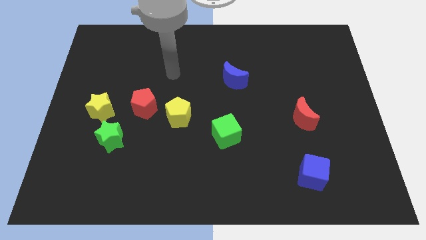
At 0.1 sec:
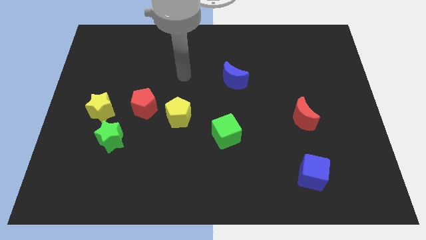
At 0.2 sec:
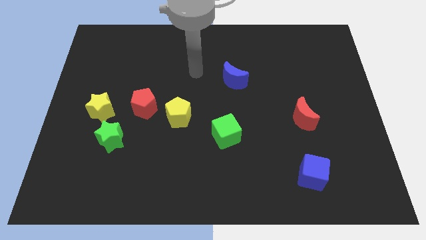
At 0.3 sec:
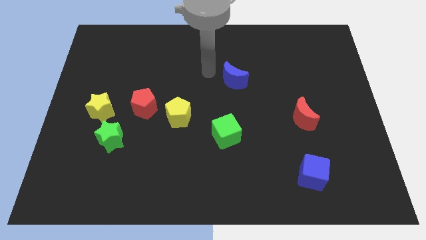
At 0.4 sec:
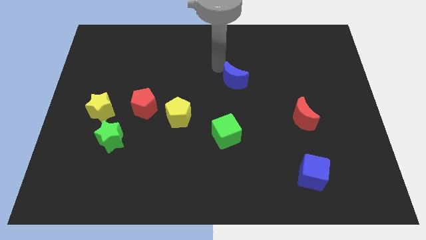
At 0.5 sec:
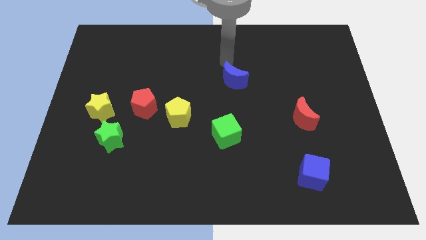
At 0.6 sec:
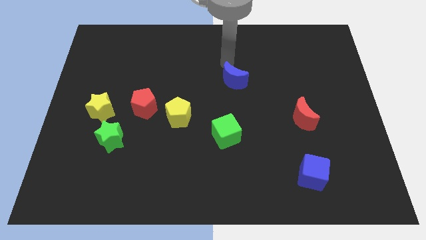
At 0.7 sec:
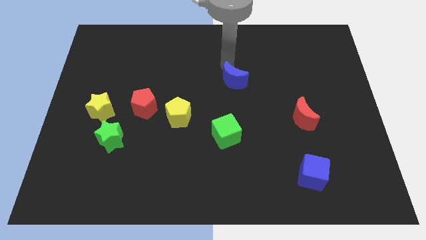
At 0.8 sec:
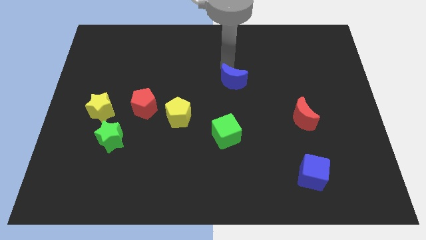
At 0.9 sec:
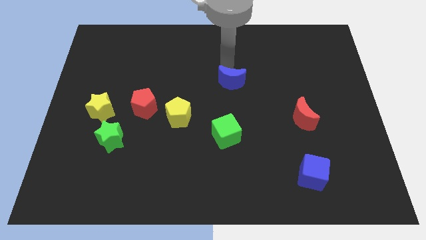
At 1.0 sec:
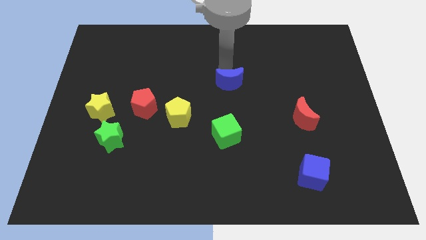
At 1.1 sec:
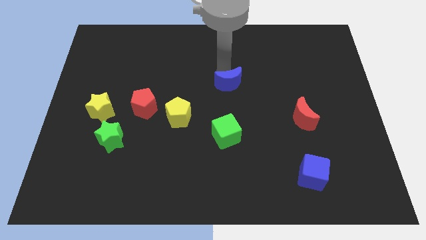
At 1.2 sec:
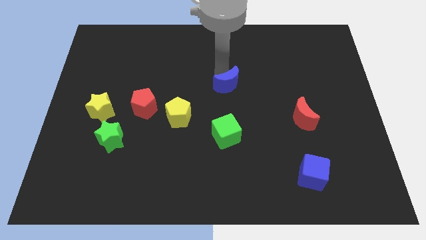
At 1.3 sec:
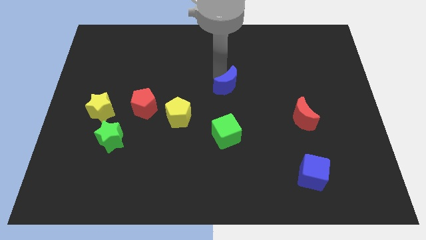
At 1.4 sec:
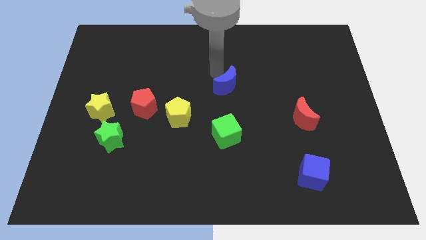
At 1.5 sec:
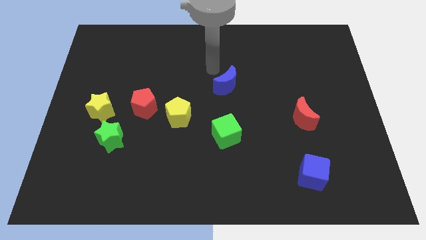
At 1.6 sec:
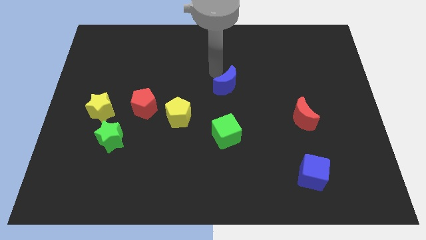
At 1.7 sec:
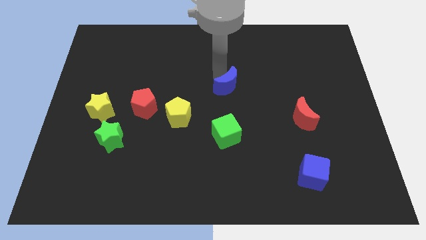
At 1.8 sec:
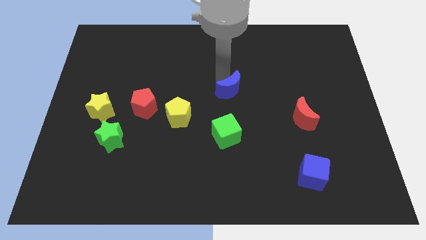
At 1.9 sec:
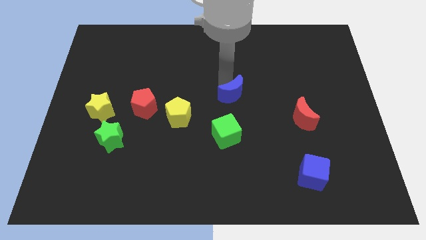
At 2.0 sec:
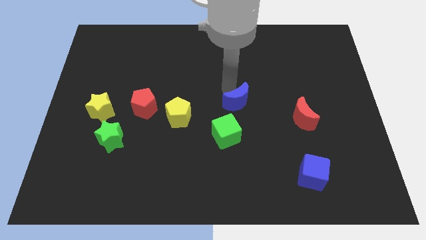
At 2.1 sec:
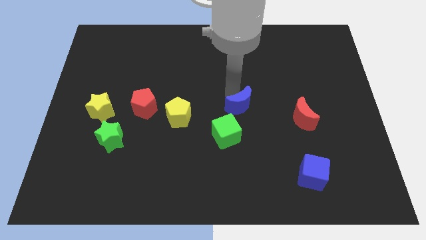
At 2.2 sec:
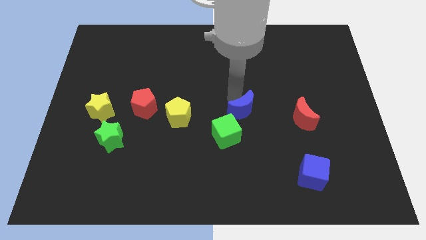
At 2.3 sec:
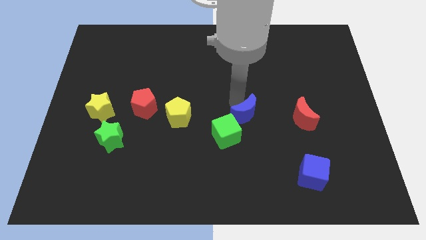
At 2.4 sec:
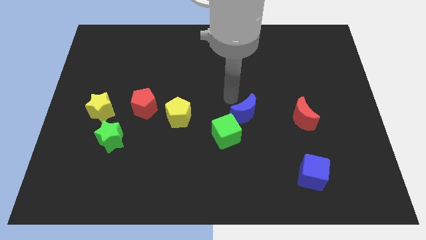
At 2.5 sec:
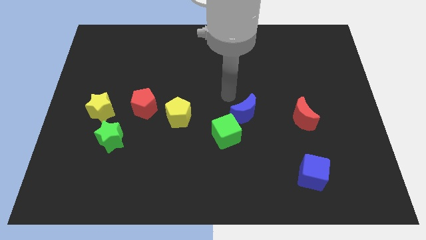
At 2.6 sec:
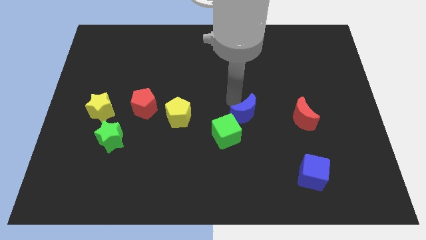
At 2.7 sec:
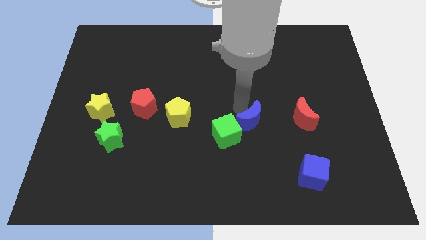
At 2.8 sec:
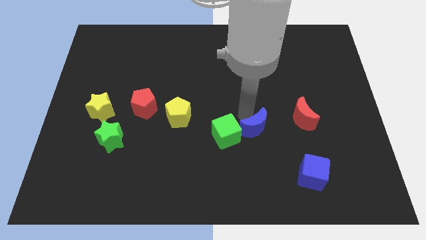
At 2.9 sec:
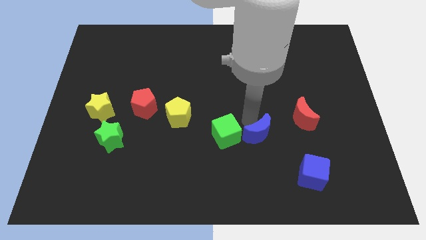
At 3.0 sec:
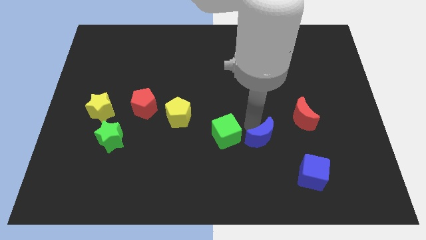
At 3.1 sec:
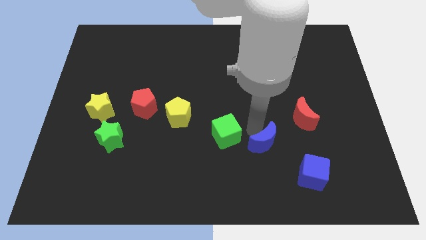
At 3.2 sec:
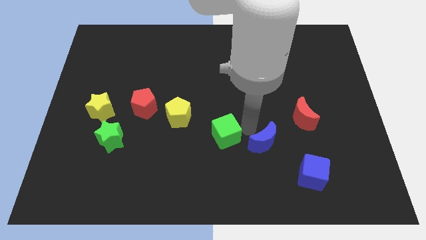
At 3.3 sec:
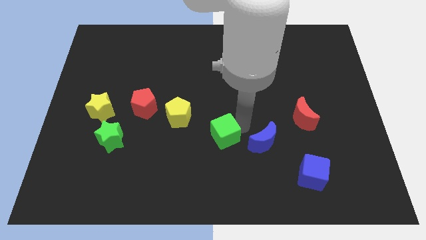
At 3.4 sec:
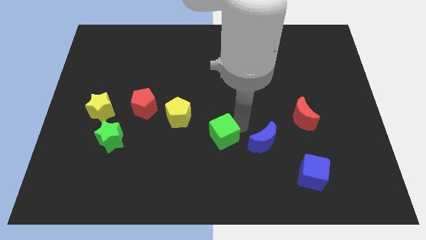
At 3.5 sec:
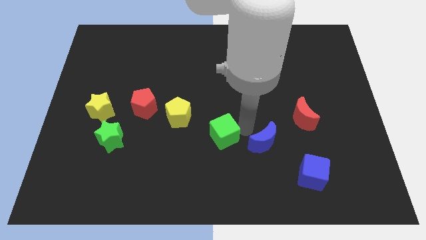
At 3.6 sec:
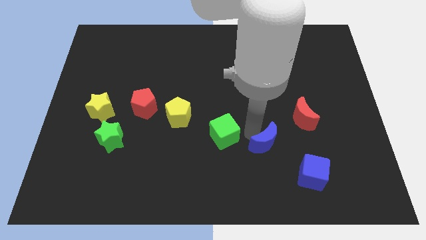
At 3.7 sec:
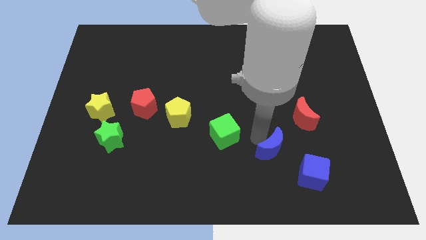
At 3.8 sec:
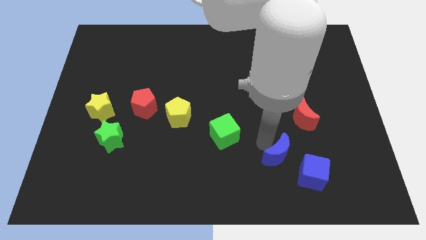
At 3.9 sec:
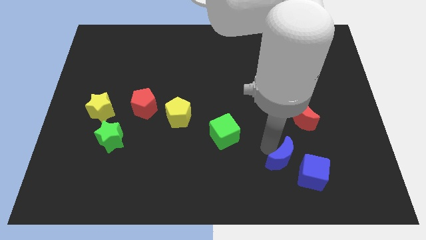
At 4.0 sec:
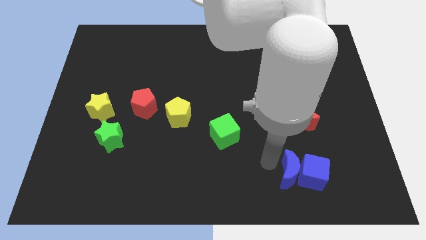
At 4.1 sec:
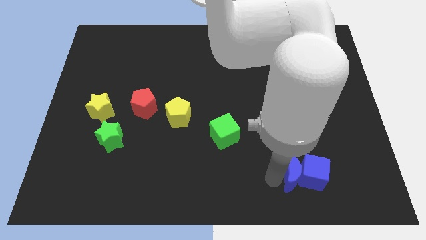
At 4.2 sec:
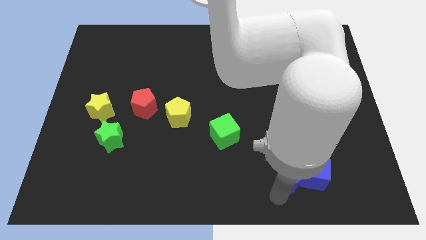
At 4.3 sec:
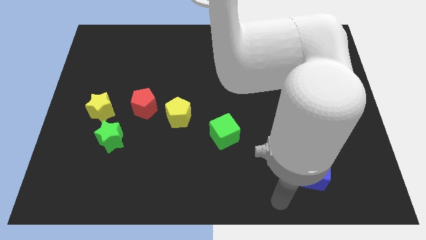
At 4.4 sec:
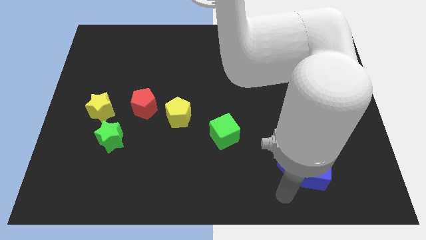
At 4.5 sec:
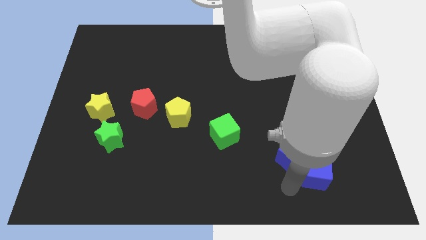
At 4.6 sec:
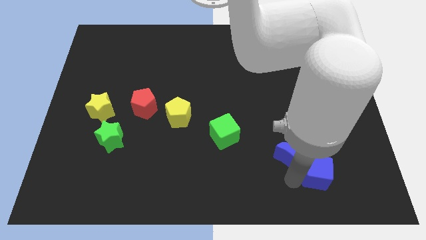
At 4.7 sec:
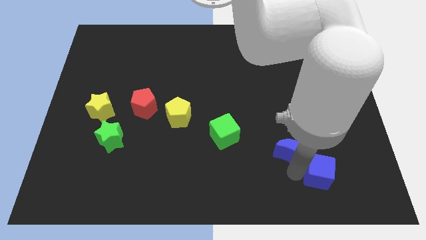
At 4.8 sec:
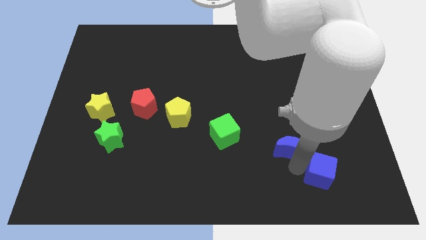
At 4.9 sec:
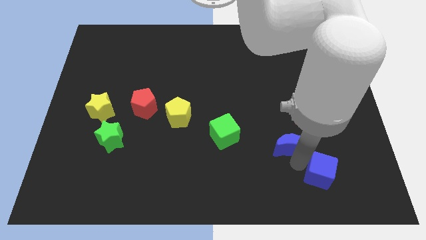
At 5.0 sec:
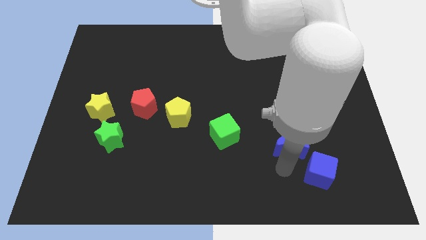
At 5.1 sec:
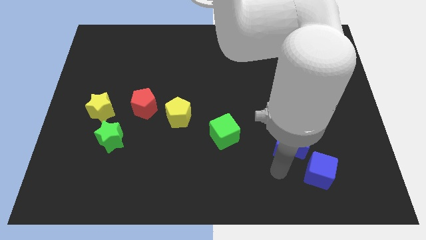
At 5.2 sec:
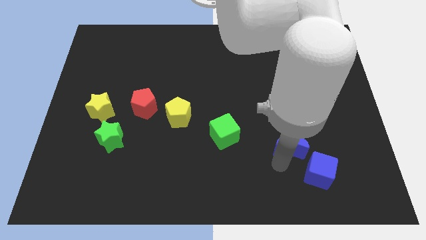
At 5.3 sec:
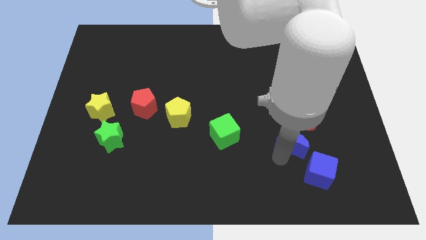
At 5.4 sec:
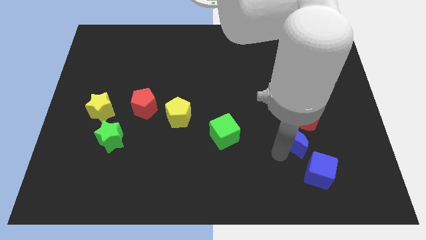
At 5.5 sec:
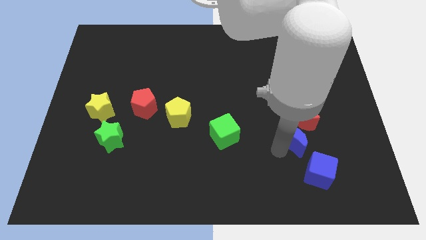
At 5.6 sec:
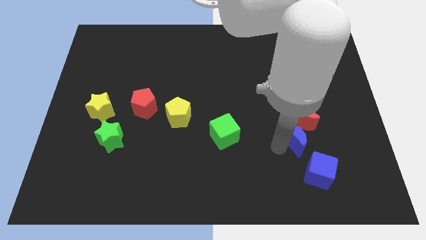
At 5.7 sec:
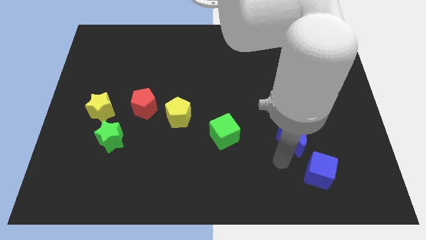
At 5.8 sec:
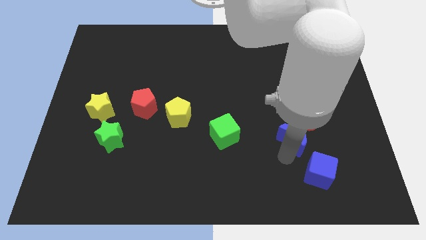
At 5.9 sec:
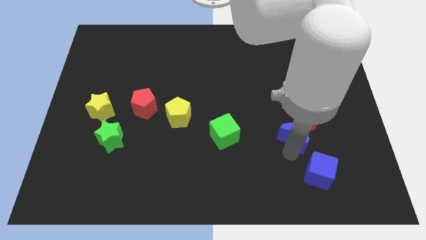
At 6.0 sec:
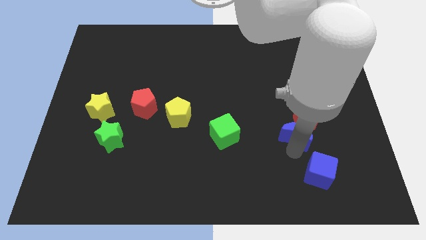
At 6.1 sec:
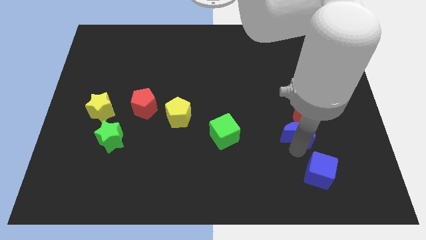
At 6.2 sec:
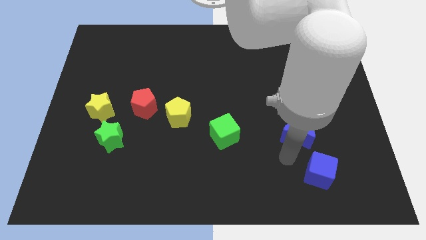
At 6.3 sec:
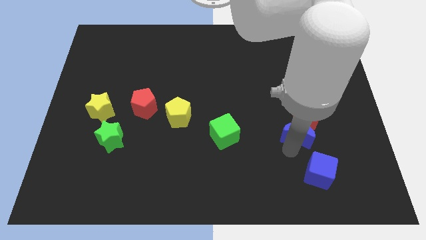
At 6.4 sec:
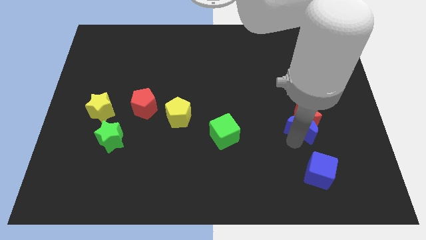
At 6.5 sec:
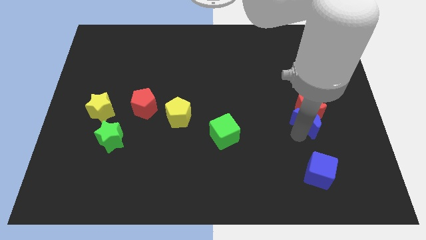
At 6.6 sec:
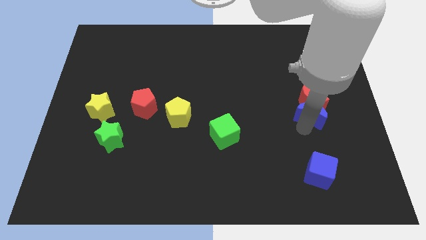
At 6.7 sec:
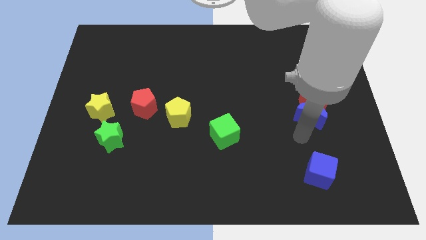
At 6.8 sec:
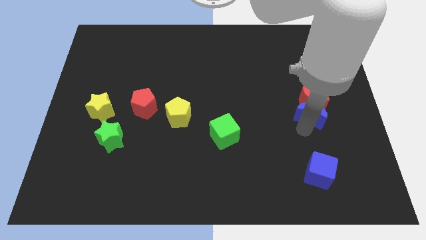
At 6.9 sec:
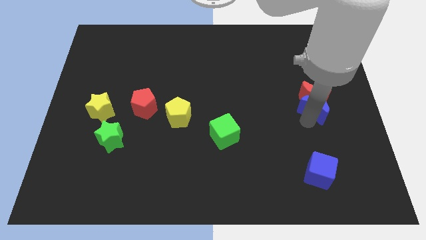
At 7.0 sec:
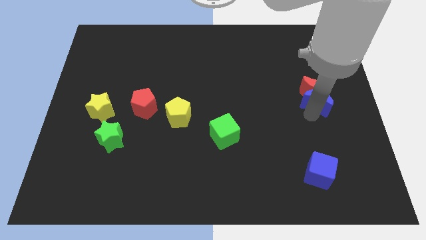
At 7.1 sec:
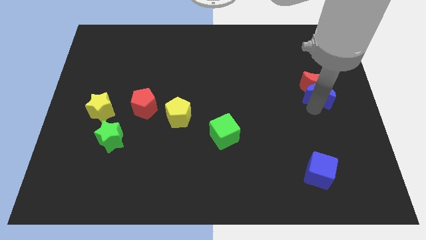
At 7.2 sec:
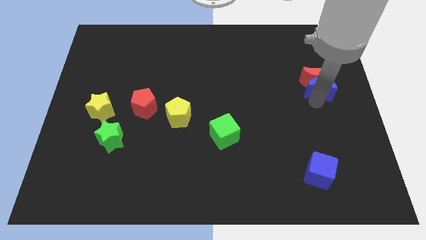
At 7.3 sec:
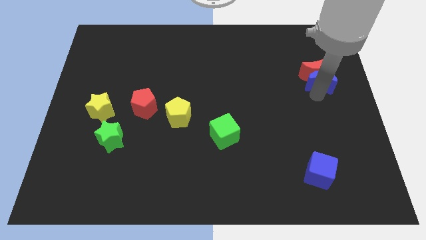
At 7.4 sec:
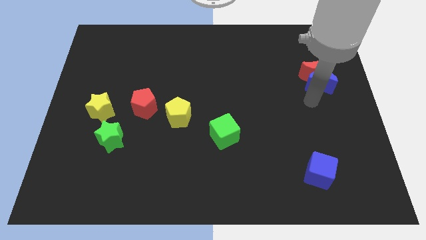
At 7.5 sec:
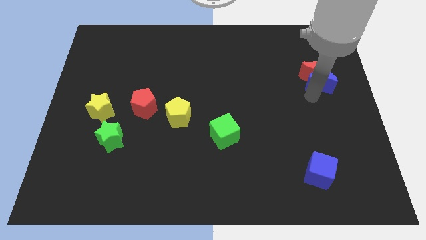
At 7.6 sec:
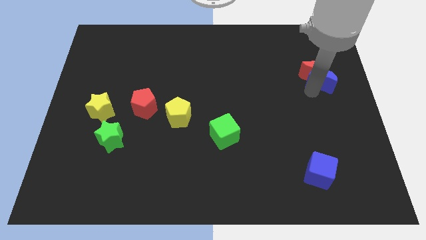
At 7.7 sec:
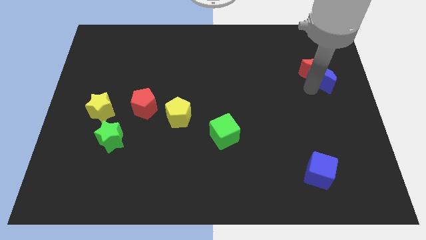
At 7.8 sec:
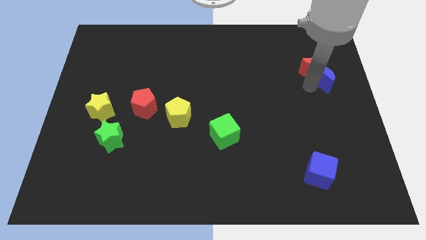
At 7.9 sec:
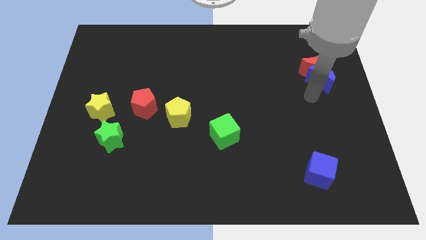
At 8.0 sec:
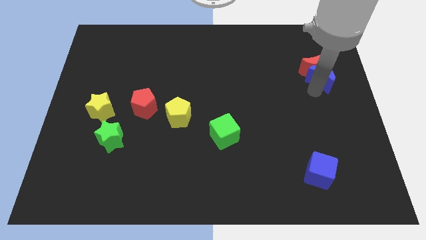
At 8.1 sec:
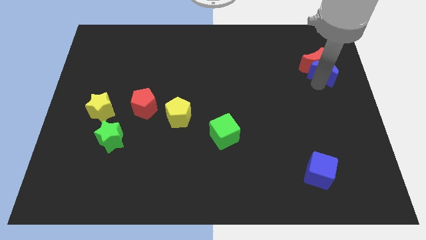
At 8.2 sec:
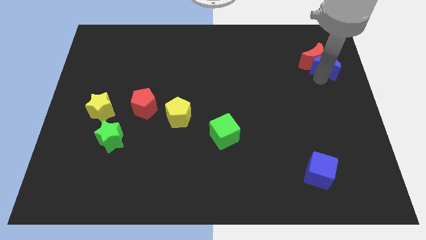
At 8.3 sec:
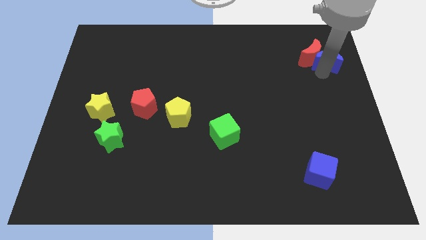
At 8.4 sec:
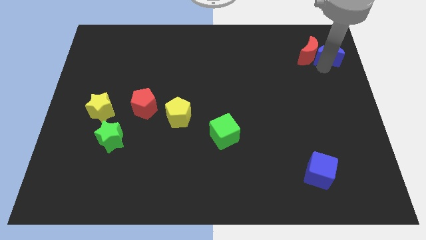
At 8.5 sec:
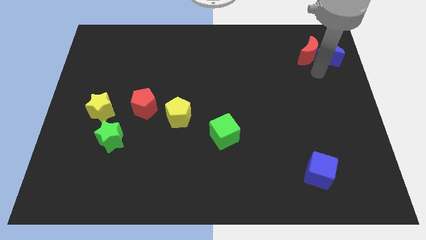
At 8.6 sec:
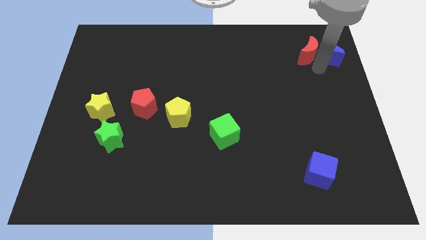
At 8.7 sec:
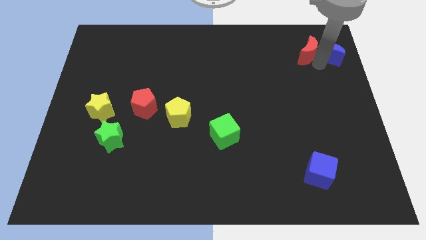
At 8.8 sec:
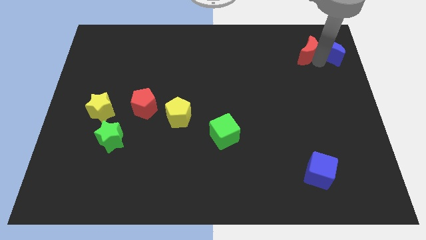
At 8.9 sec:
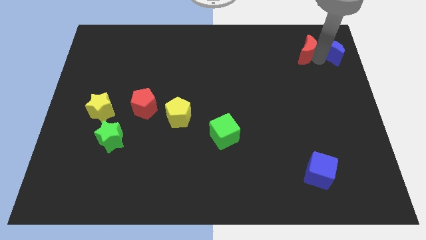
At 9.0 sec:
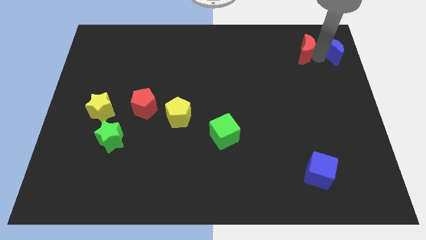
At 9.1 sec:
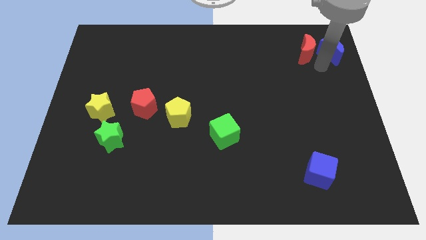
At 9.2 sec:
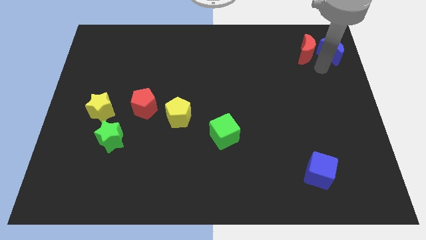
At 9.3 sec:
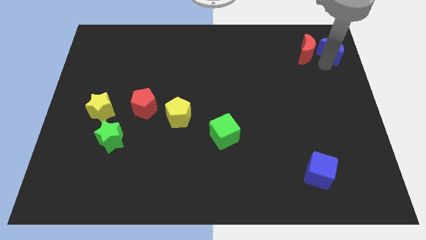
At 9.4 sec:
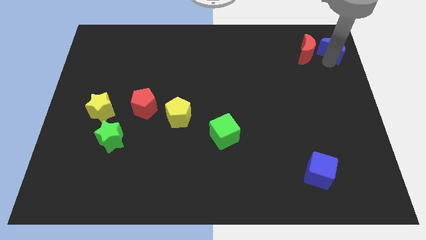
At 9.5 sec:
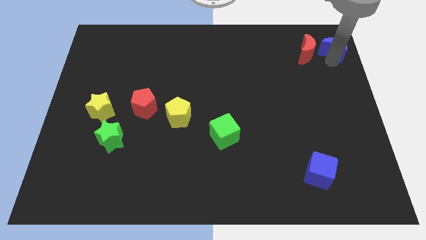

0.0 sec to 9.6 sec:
slide the blue moon to the top right
